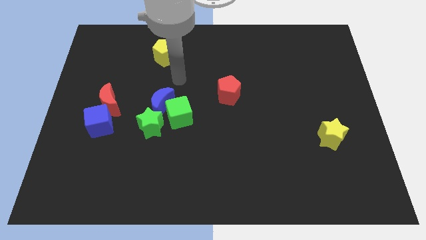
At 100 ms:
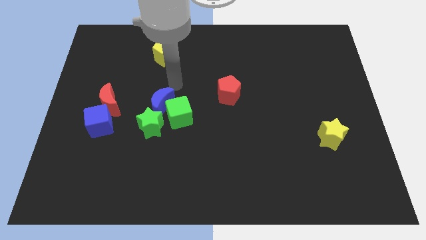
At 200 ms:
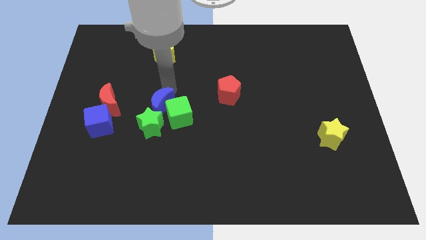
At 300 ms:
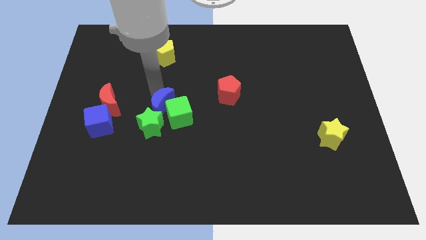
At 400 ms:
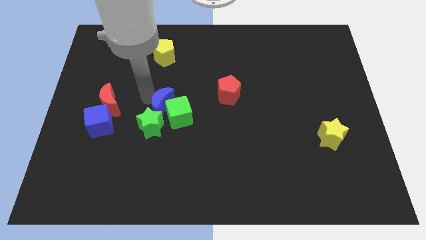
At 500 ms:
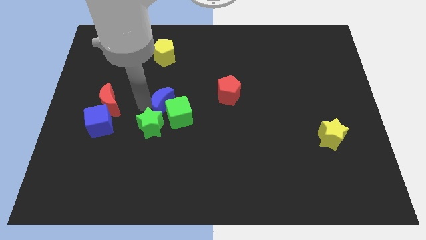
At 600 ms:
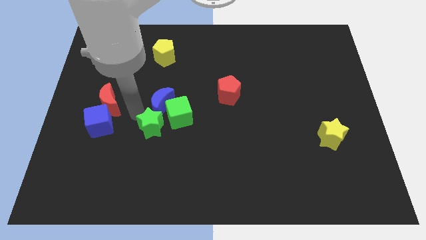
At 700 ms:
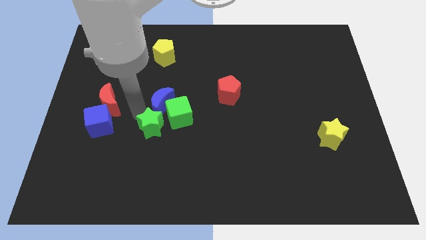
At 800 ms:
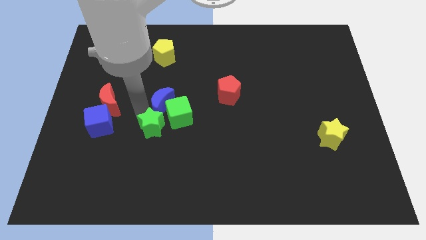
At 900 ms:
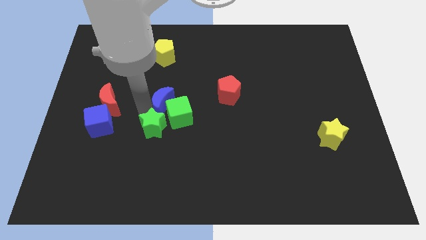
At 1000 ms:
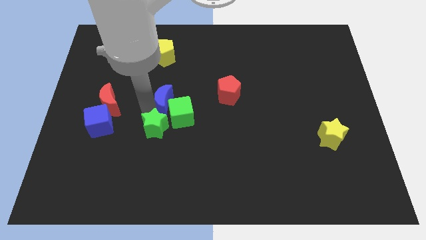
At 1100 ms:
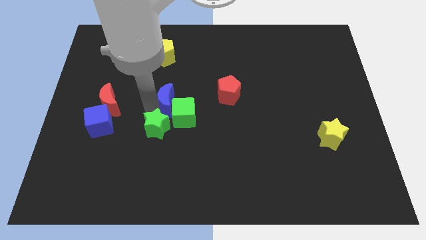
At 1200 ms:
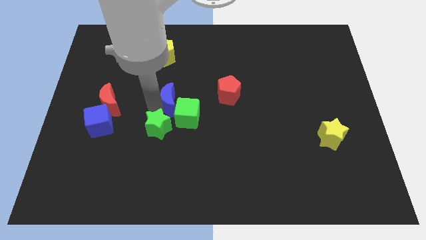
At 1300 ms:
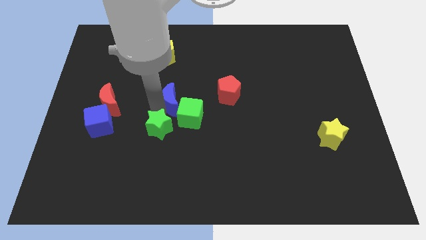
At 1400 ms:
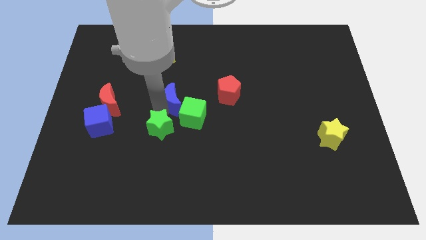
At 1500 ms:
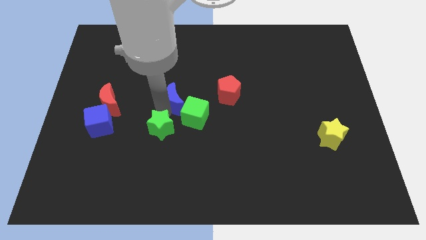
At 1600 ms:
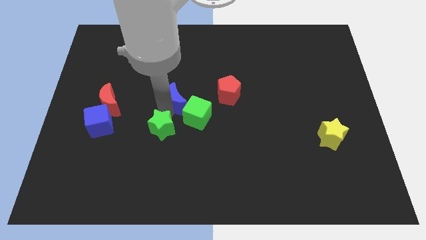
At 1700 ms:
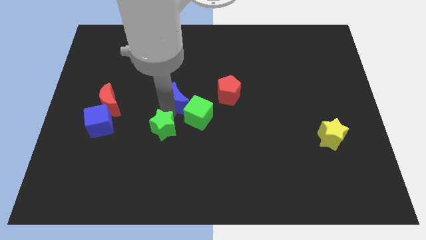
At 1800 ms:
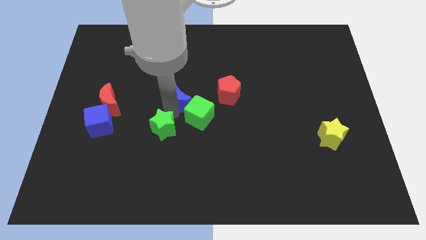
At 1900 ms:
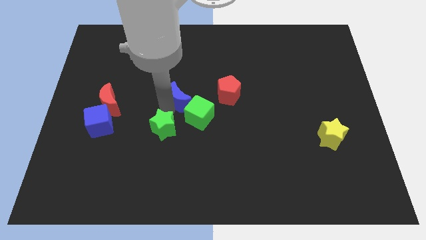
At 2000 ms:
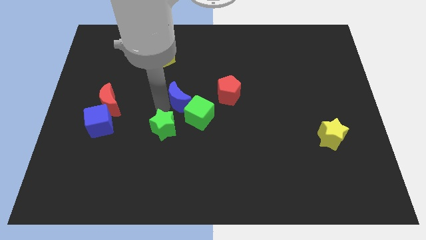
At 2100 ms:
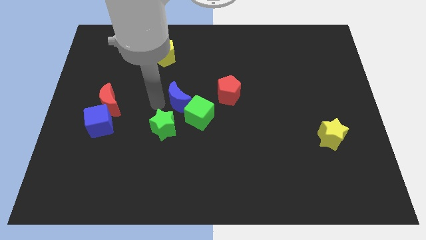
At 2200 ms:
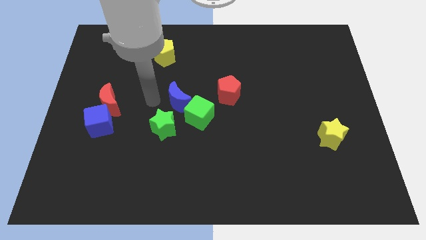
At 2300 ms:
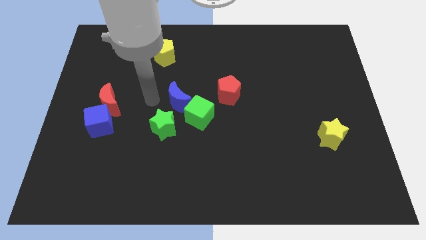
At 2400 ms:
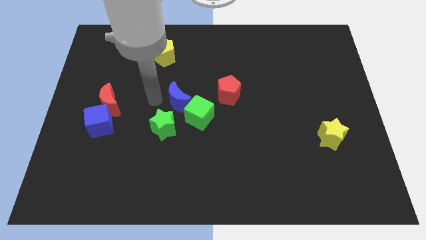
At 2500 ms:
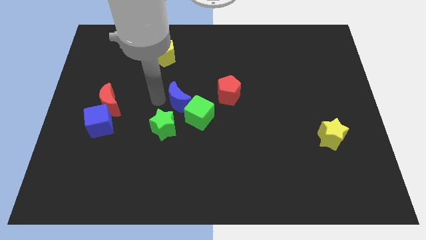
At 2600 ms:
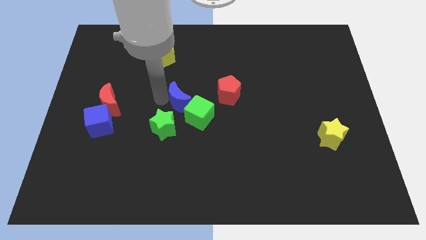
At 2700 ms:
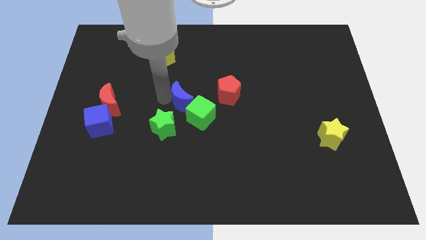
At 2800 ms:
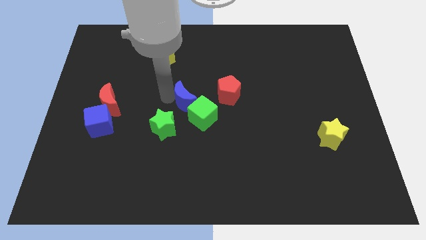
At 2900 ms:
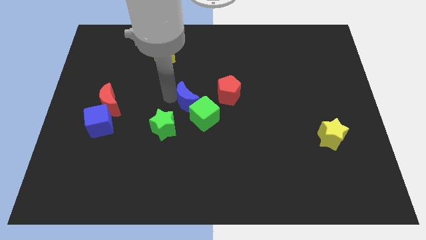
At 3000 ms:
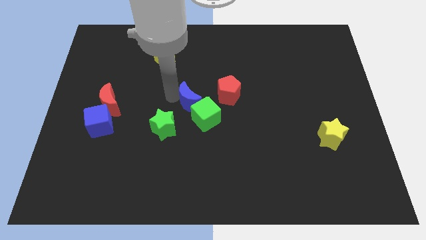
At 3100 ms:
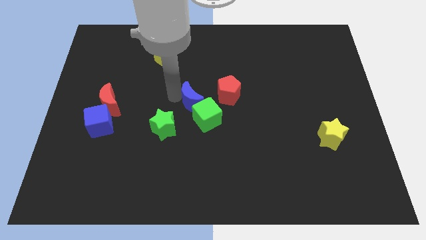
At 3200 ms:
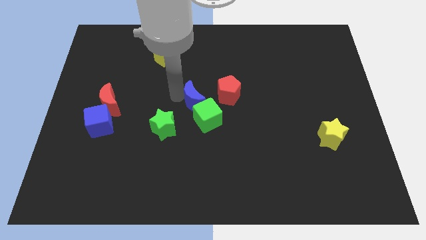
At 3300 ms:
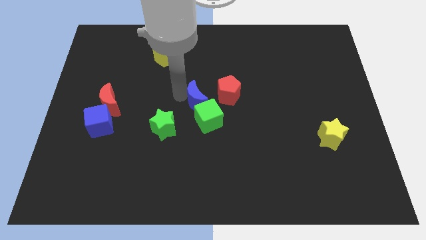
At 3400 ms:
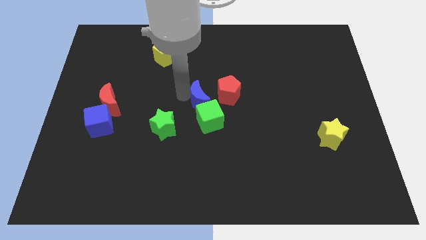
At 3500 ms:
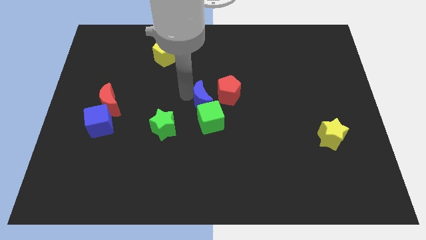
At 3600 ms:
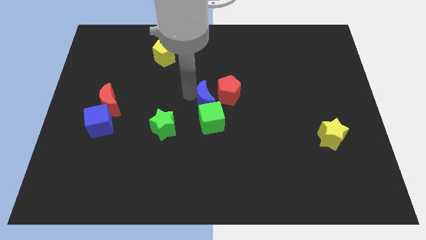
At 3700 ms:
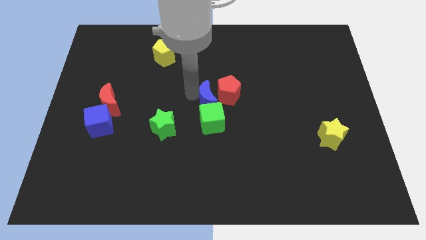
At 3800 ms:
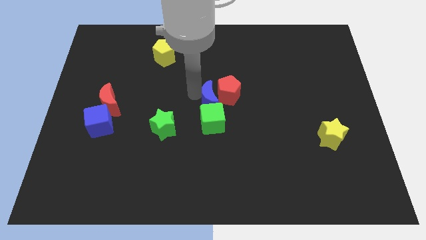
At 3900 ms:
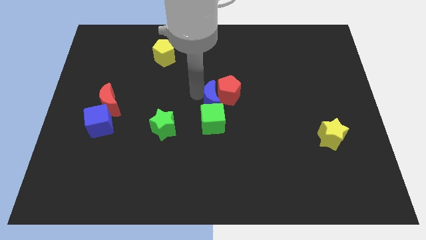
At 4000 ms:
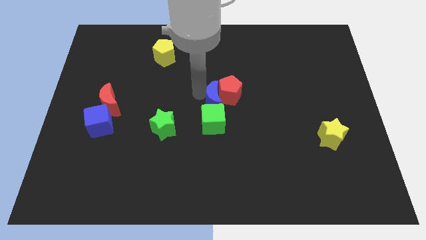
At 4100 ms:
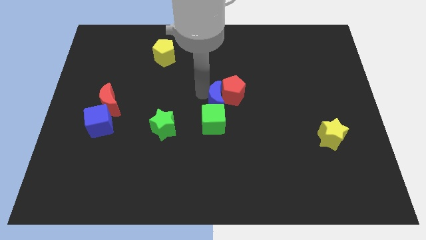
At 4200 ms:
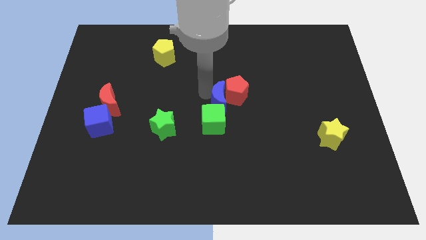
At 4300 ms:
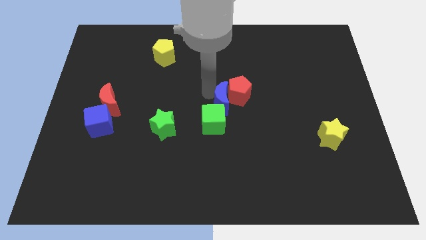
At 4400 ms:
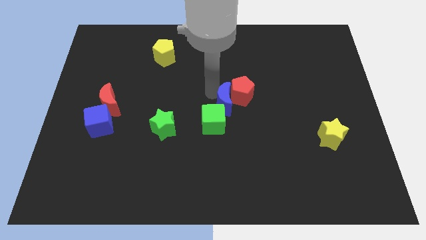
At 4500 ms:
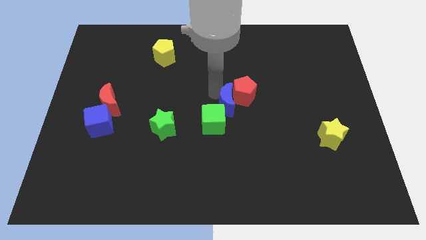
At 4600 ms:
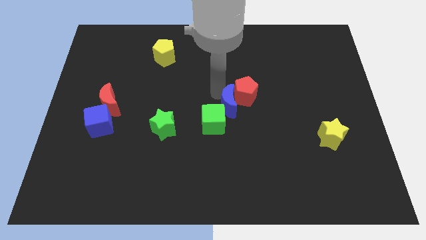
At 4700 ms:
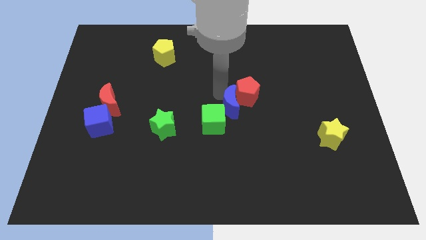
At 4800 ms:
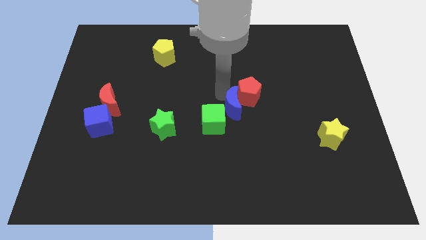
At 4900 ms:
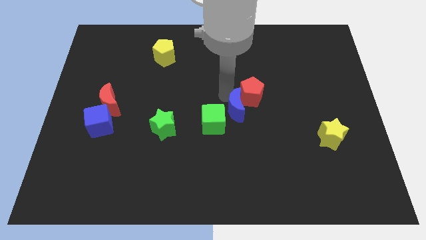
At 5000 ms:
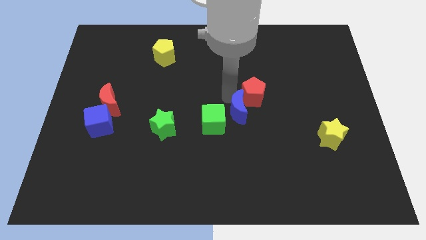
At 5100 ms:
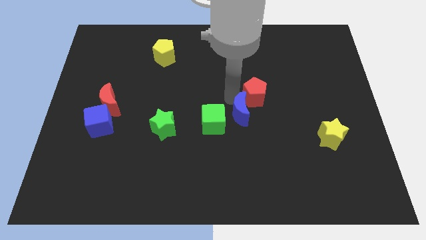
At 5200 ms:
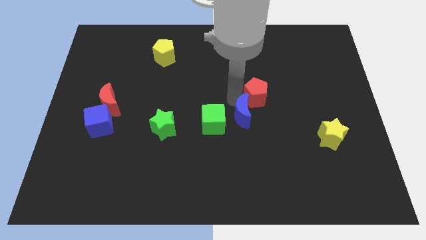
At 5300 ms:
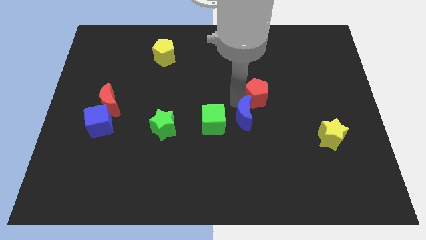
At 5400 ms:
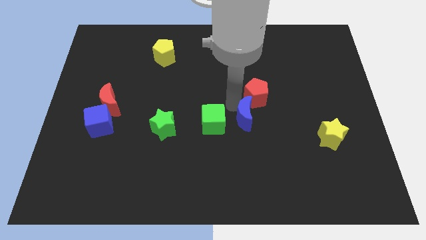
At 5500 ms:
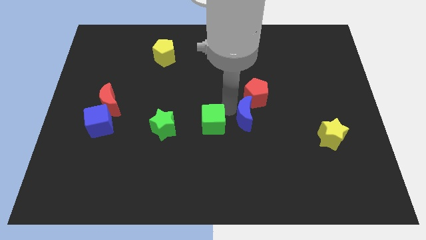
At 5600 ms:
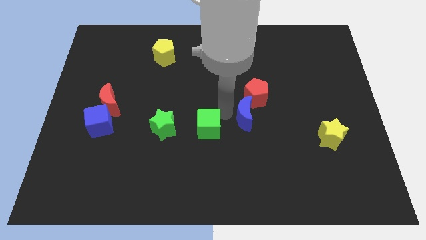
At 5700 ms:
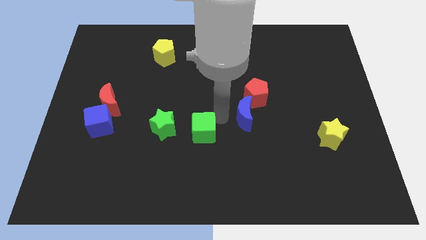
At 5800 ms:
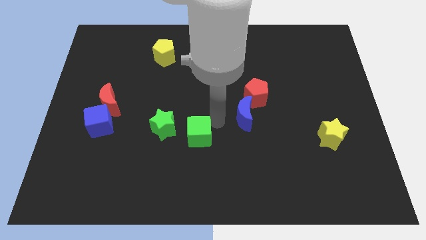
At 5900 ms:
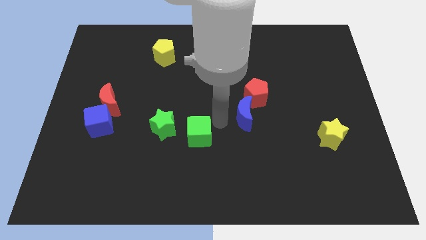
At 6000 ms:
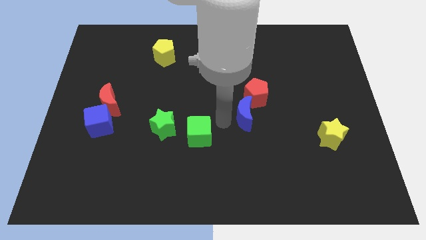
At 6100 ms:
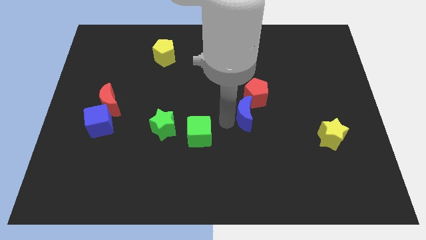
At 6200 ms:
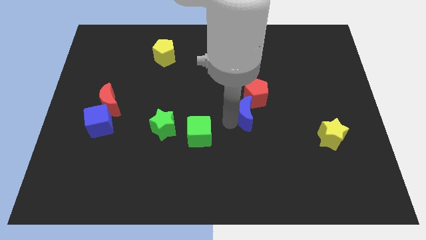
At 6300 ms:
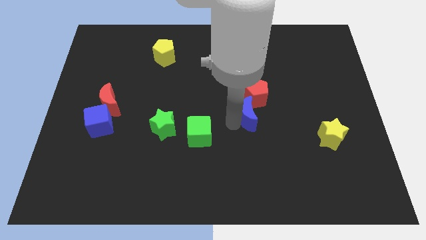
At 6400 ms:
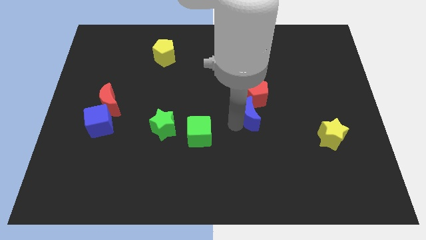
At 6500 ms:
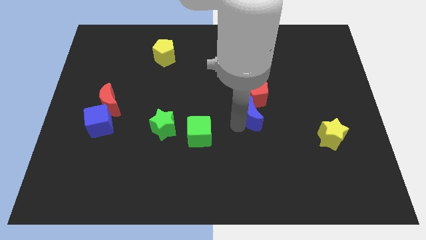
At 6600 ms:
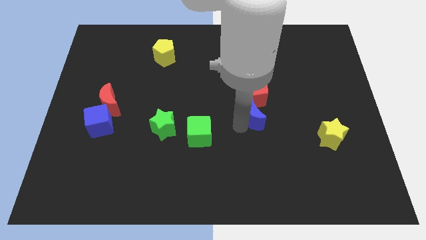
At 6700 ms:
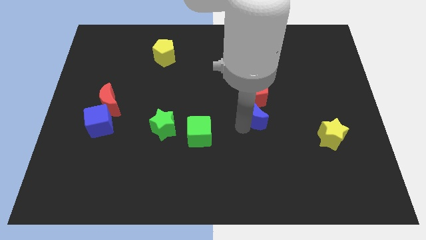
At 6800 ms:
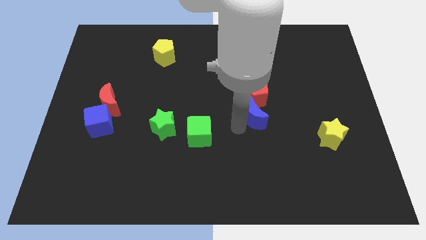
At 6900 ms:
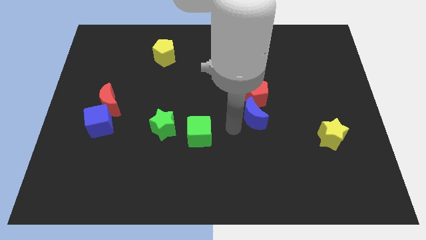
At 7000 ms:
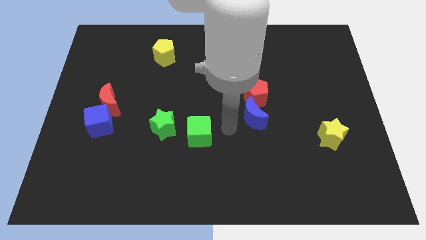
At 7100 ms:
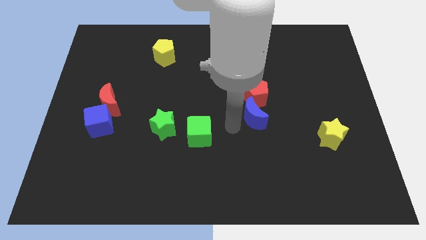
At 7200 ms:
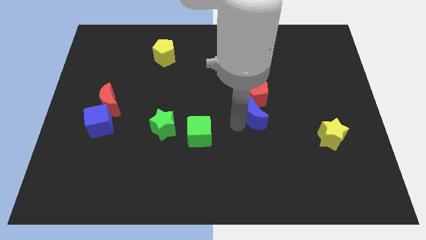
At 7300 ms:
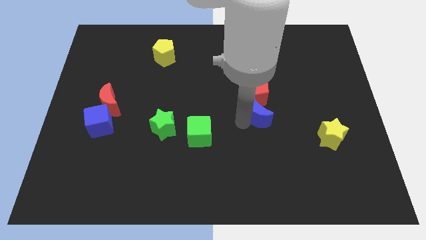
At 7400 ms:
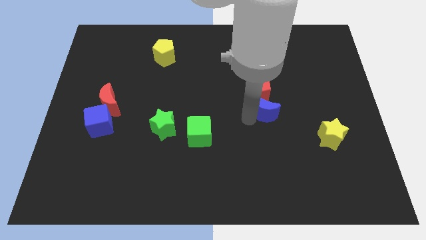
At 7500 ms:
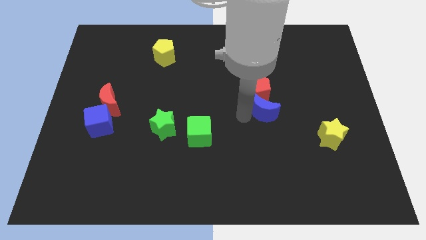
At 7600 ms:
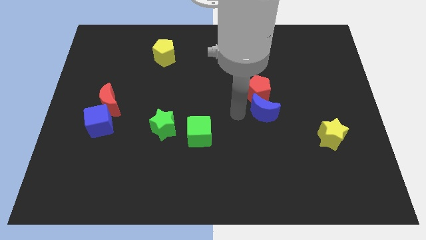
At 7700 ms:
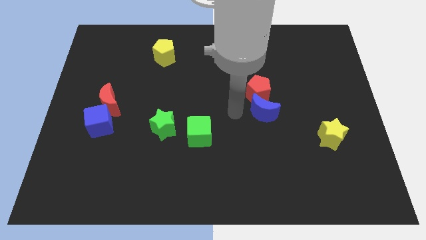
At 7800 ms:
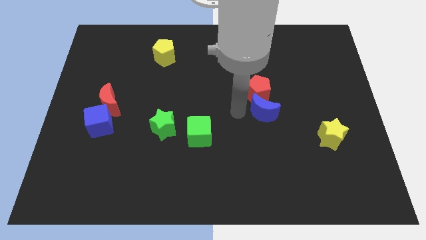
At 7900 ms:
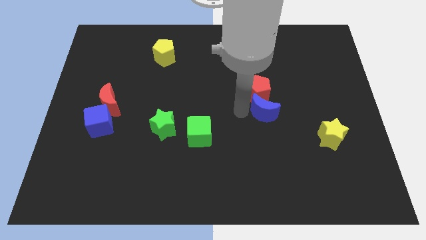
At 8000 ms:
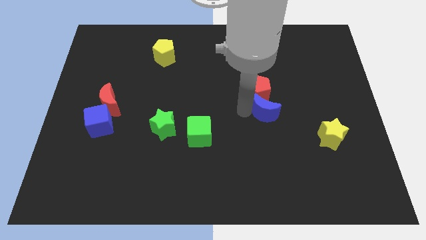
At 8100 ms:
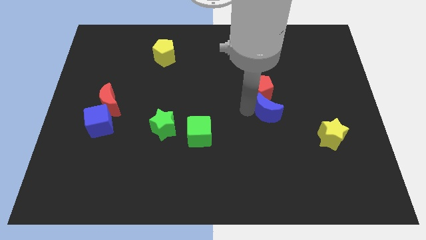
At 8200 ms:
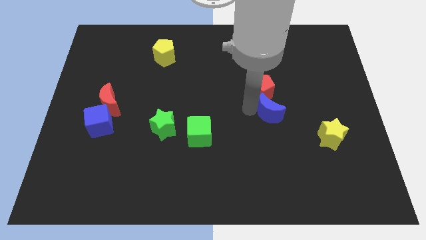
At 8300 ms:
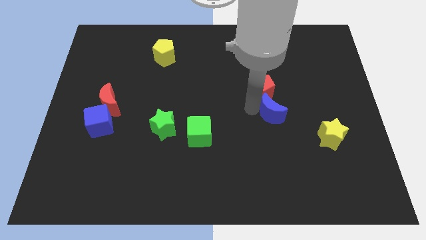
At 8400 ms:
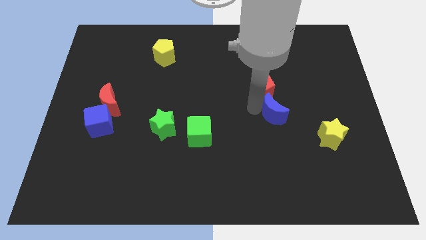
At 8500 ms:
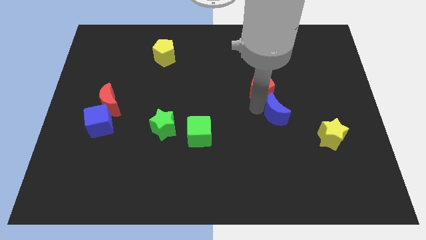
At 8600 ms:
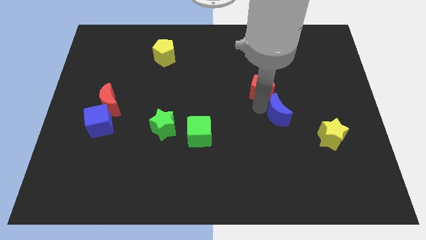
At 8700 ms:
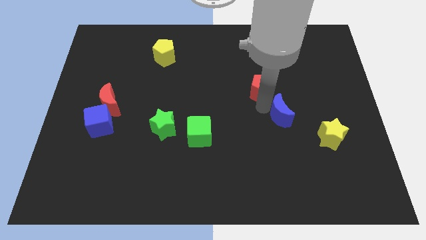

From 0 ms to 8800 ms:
slide the blue moon to the top left side of the yellow star
